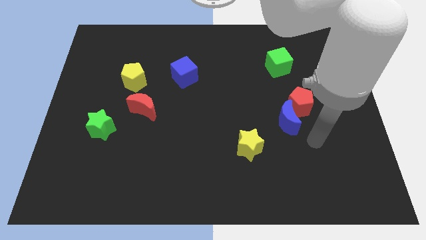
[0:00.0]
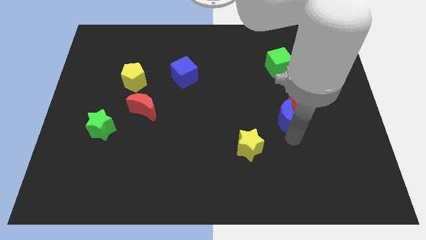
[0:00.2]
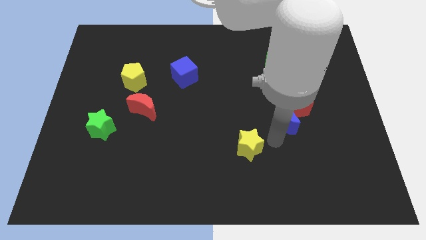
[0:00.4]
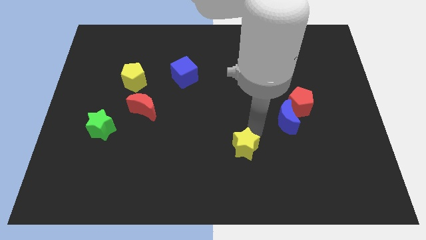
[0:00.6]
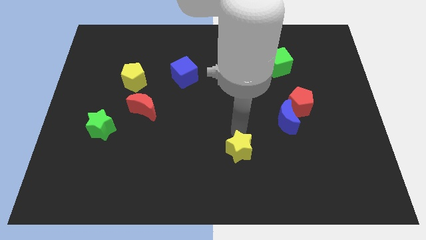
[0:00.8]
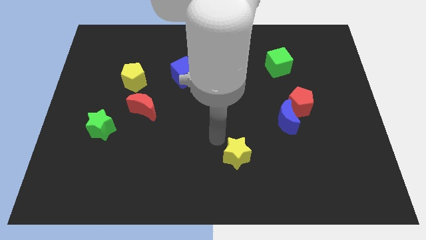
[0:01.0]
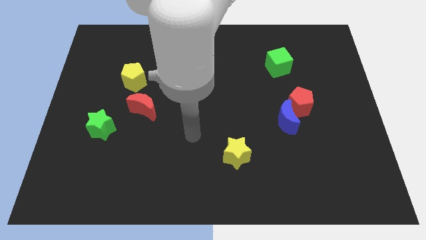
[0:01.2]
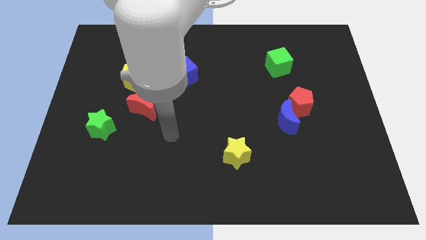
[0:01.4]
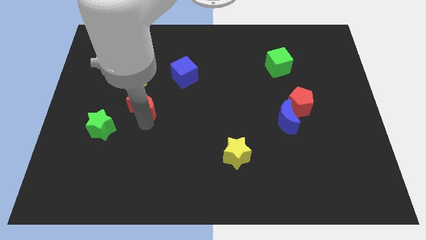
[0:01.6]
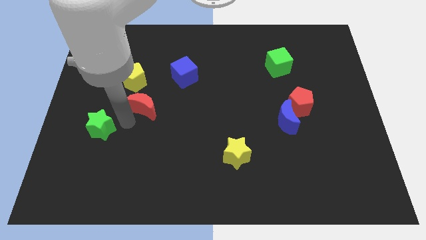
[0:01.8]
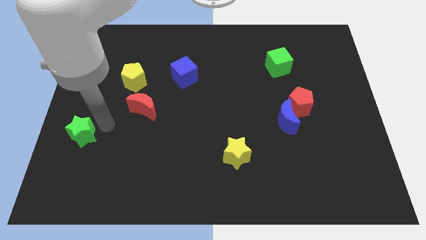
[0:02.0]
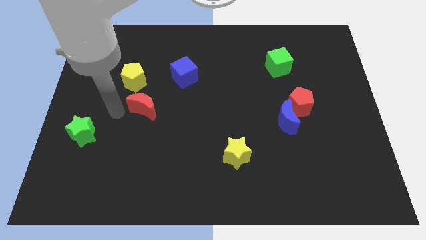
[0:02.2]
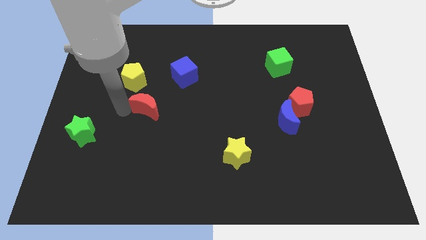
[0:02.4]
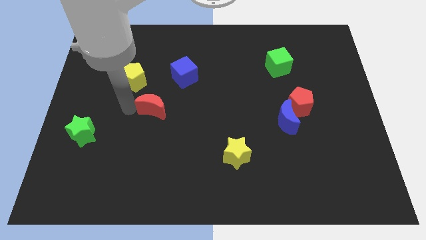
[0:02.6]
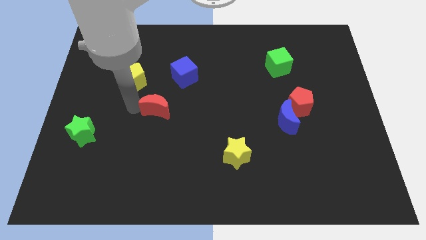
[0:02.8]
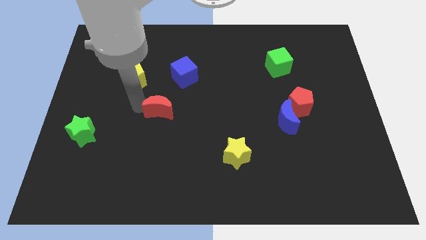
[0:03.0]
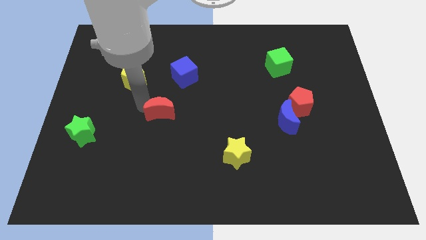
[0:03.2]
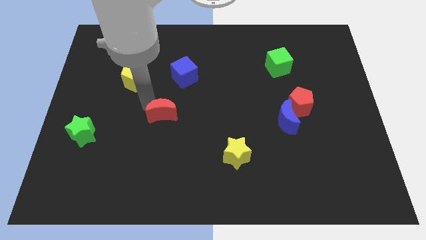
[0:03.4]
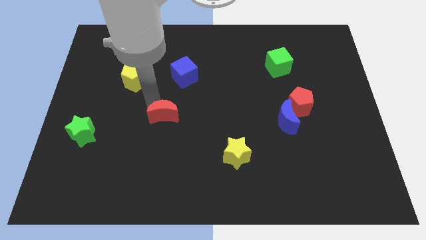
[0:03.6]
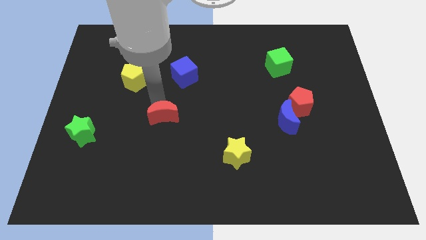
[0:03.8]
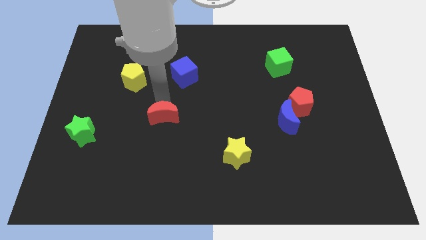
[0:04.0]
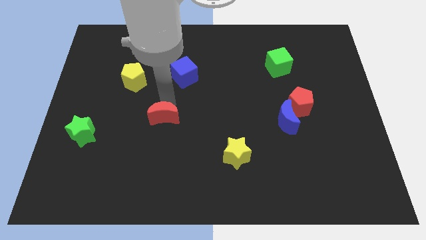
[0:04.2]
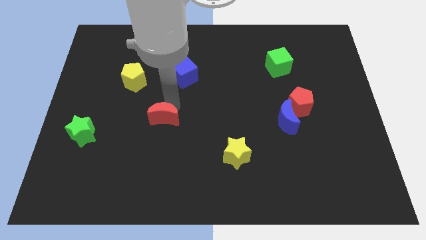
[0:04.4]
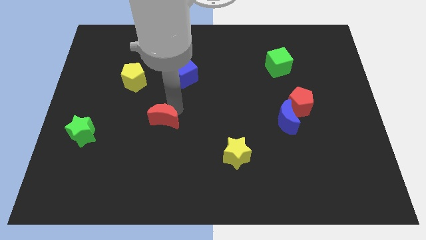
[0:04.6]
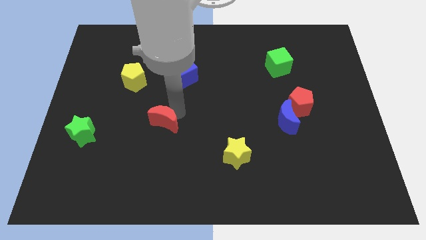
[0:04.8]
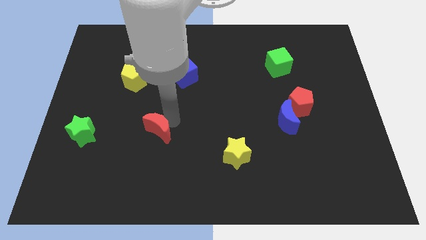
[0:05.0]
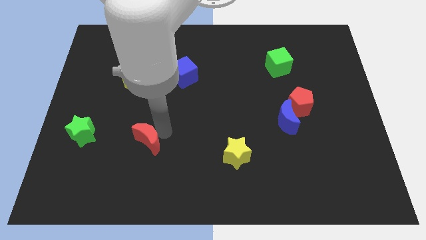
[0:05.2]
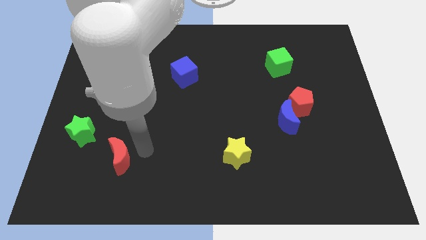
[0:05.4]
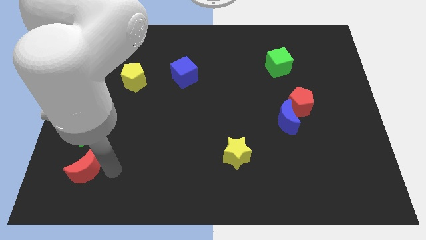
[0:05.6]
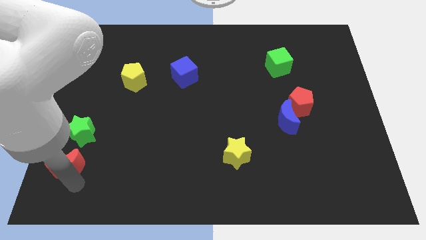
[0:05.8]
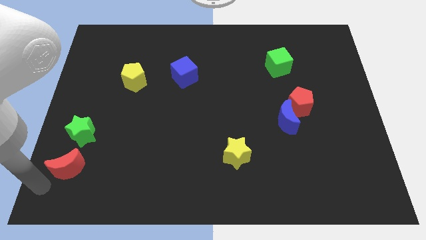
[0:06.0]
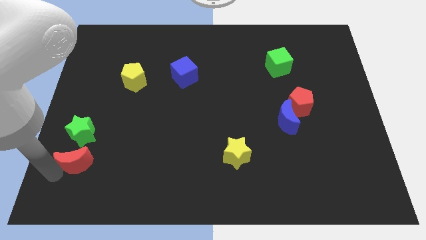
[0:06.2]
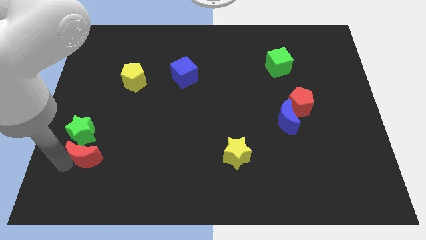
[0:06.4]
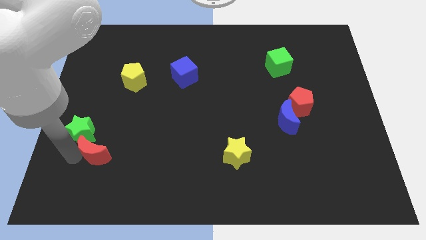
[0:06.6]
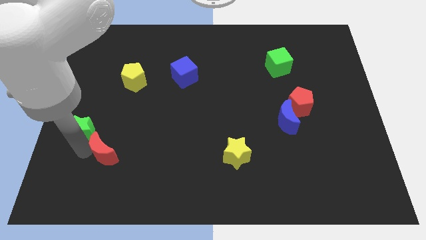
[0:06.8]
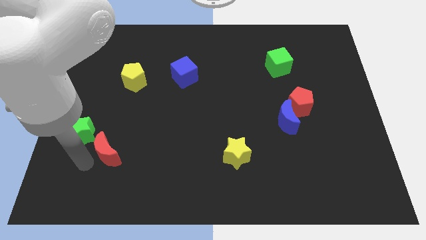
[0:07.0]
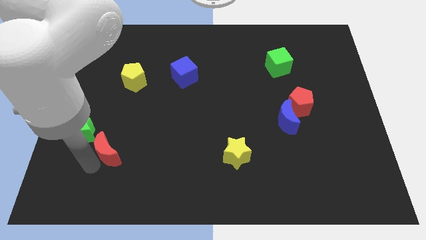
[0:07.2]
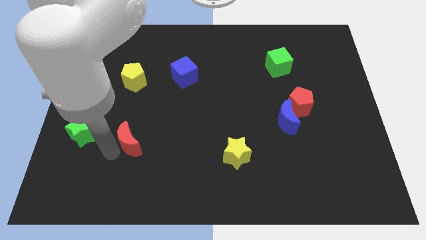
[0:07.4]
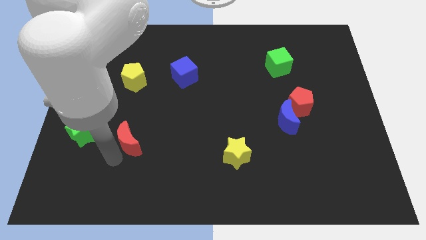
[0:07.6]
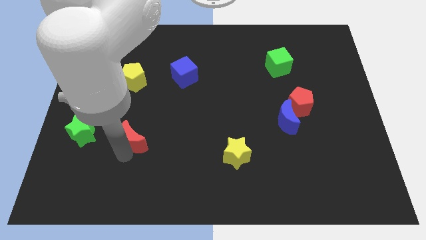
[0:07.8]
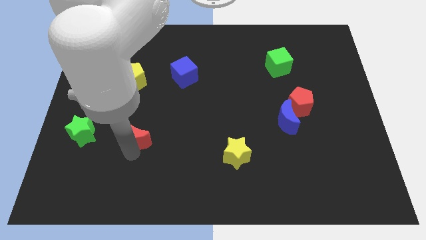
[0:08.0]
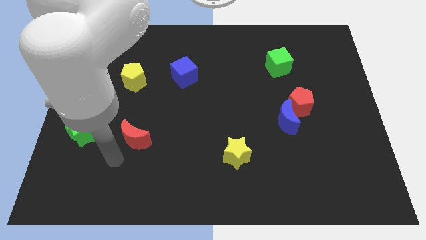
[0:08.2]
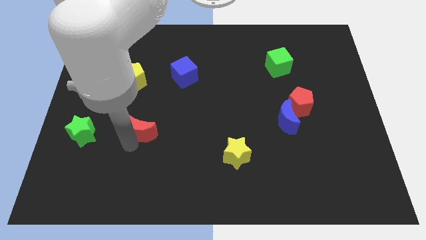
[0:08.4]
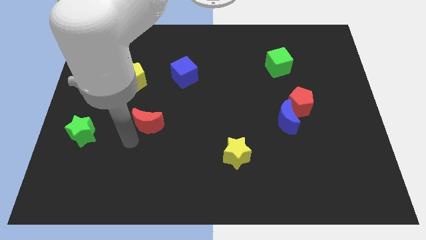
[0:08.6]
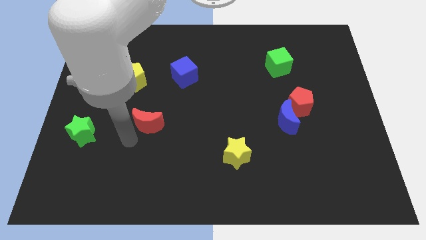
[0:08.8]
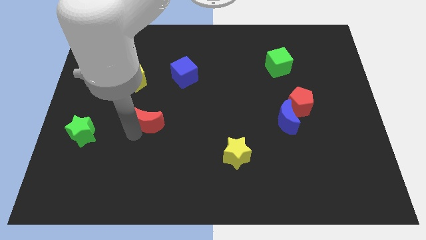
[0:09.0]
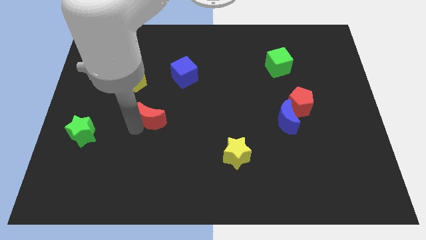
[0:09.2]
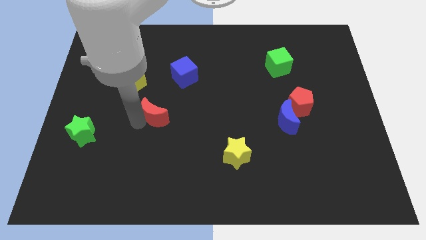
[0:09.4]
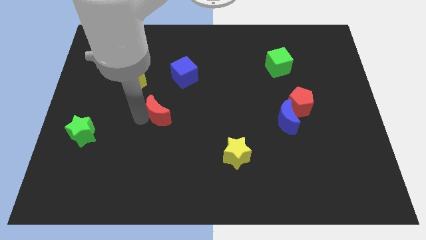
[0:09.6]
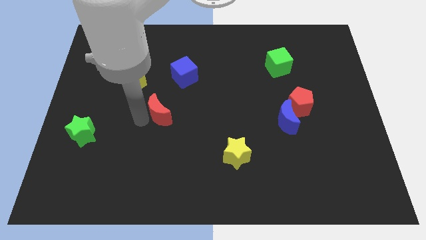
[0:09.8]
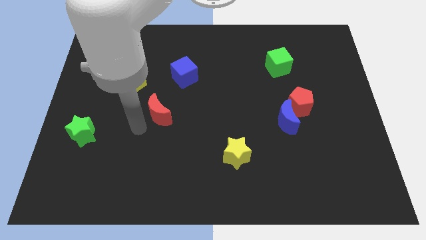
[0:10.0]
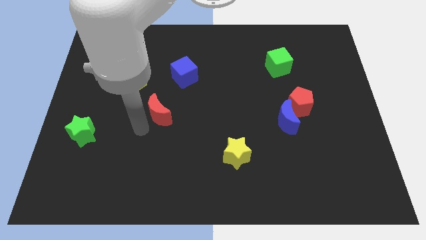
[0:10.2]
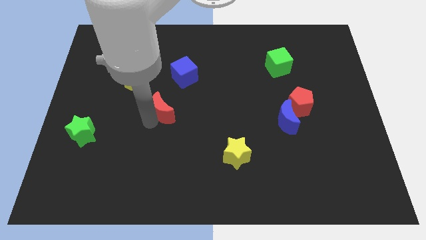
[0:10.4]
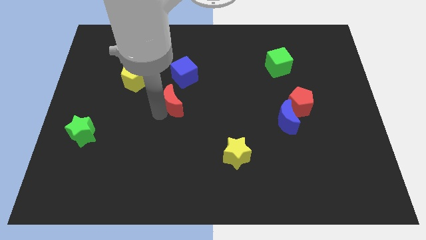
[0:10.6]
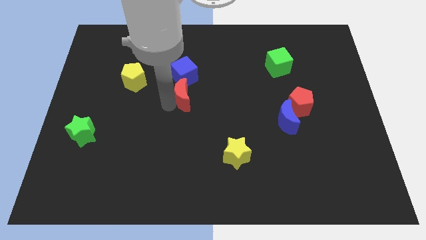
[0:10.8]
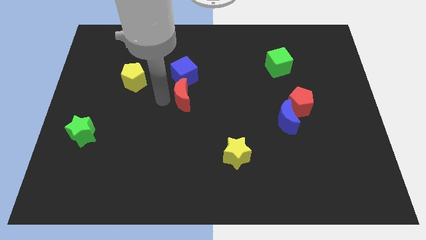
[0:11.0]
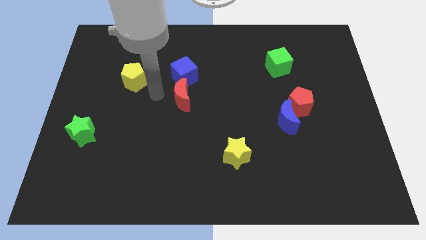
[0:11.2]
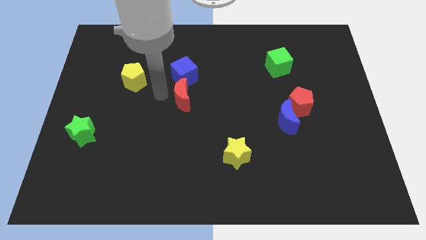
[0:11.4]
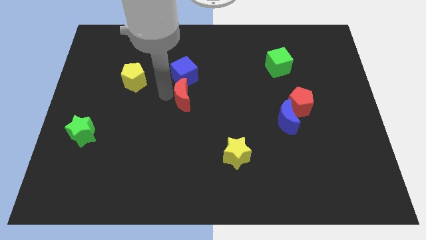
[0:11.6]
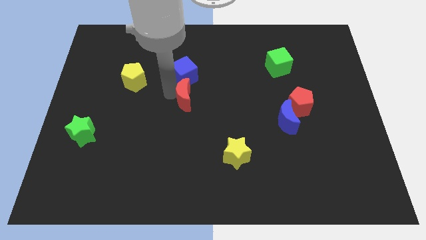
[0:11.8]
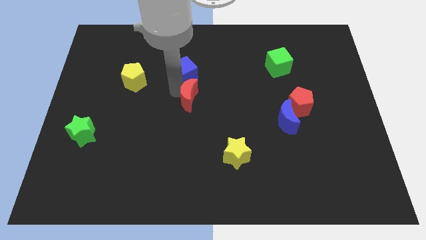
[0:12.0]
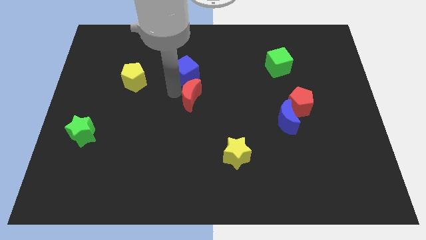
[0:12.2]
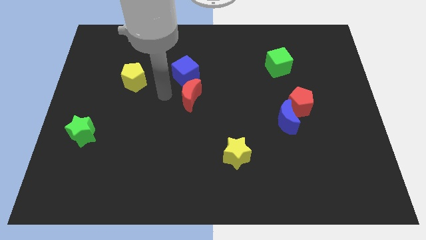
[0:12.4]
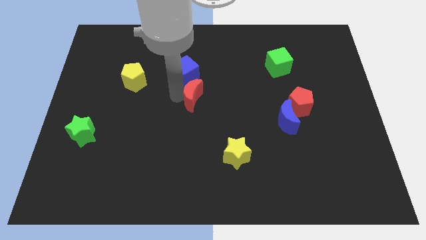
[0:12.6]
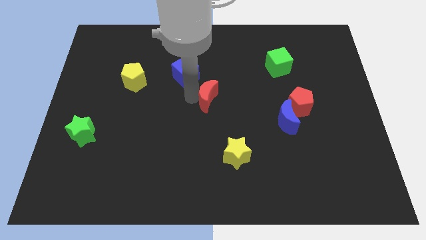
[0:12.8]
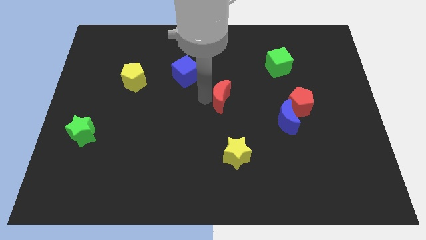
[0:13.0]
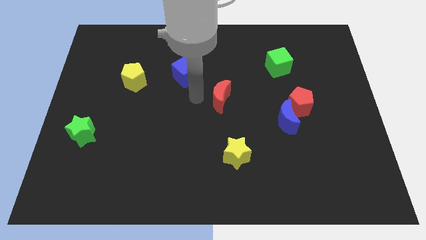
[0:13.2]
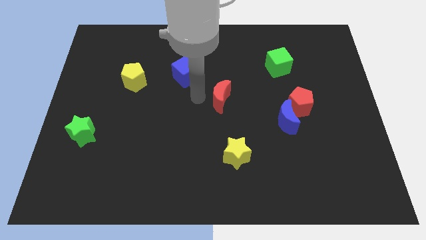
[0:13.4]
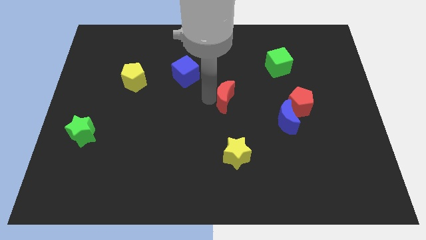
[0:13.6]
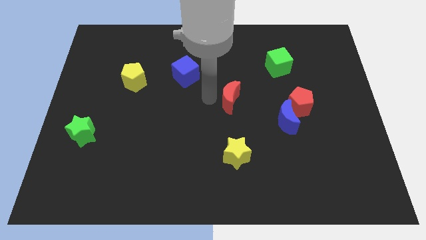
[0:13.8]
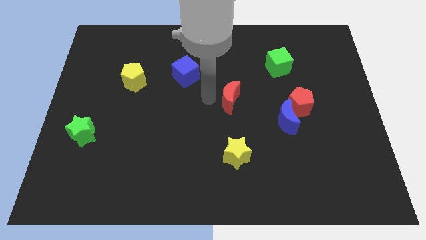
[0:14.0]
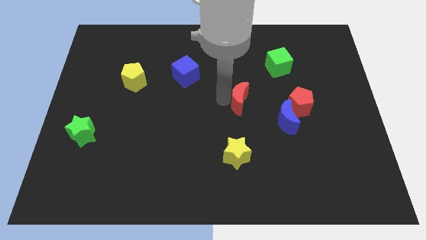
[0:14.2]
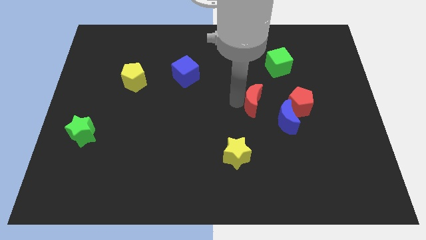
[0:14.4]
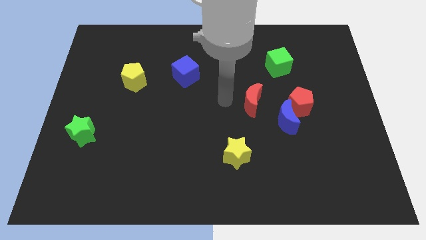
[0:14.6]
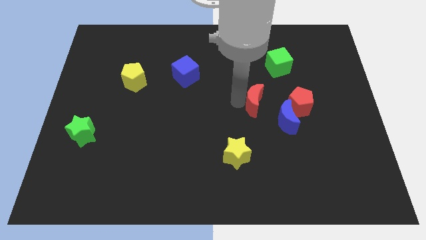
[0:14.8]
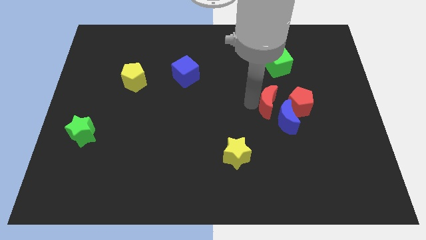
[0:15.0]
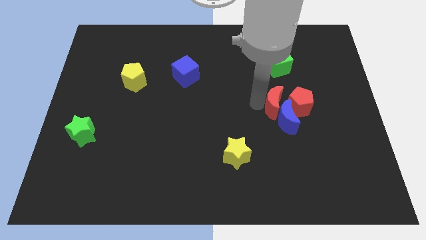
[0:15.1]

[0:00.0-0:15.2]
put the red moon to the red pentagon

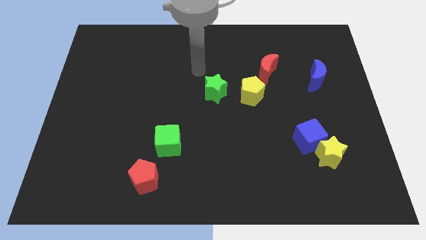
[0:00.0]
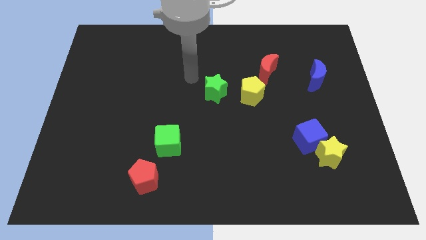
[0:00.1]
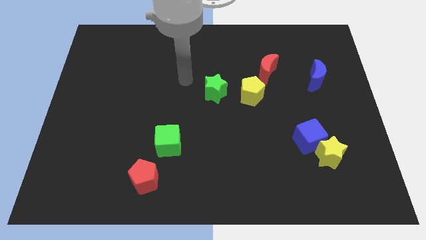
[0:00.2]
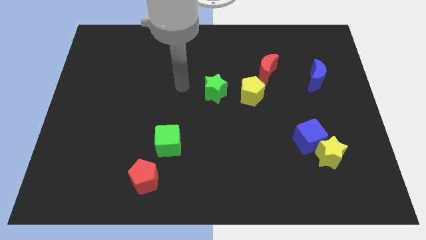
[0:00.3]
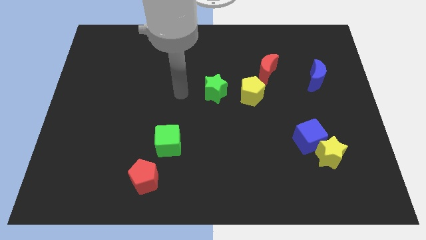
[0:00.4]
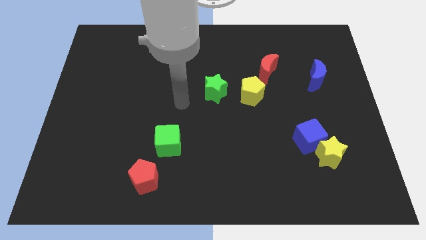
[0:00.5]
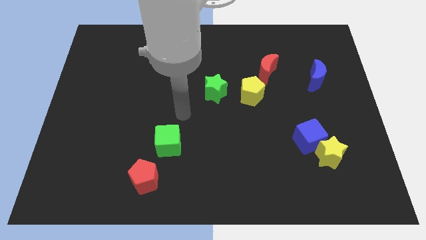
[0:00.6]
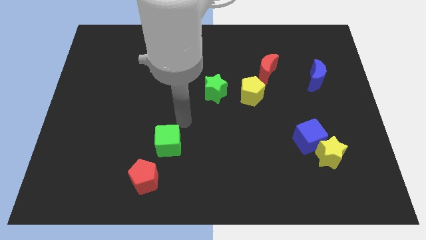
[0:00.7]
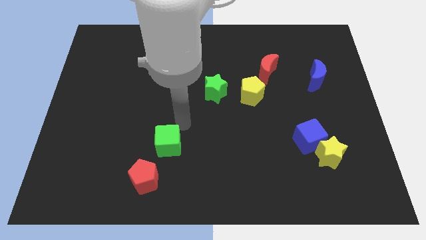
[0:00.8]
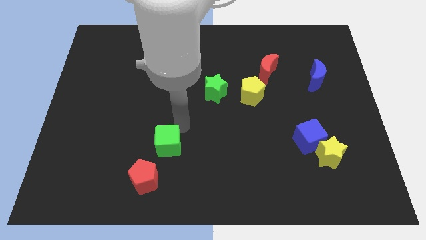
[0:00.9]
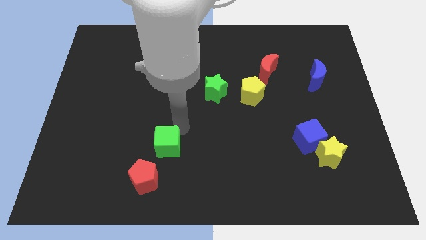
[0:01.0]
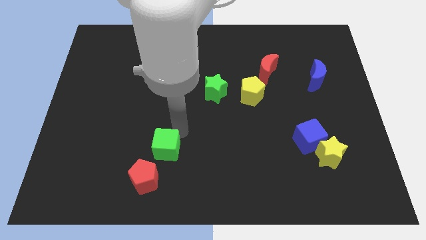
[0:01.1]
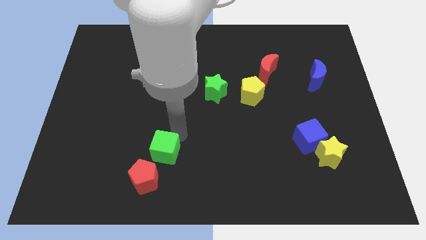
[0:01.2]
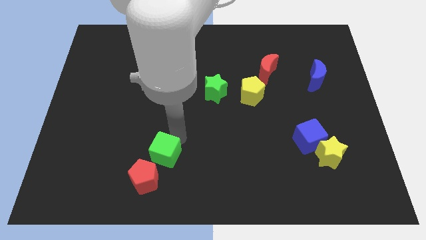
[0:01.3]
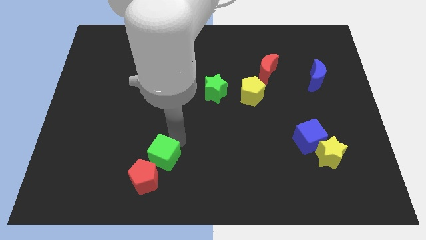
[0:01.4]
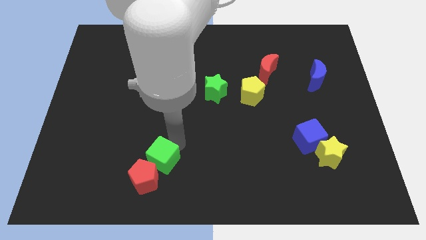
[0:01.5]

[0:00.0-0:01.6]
move the green cube to the red pentagon
